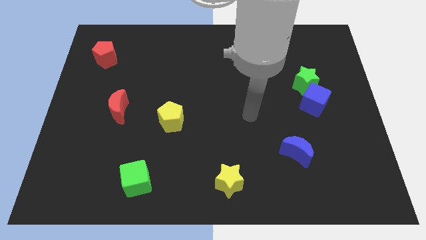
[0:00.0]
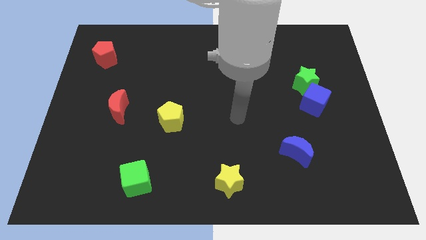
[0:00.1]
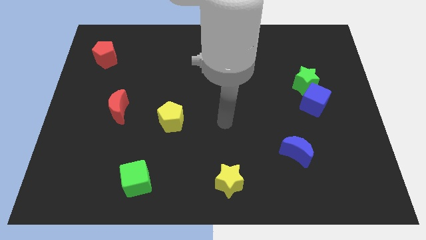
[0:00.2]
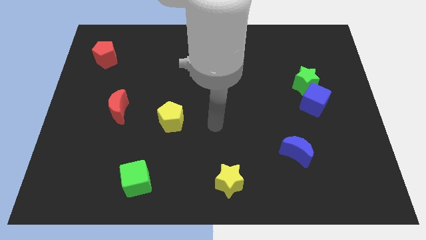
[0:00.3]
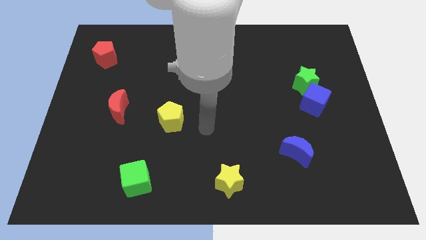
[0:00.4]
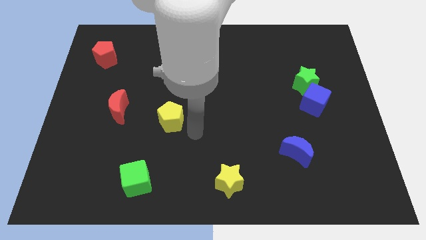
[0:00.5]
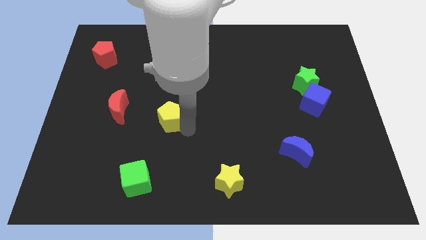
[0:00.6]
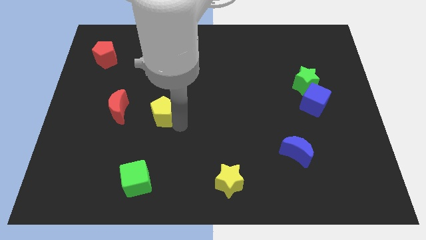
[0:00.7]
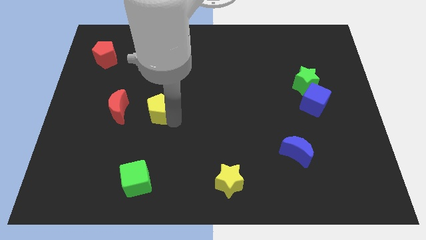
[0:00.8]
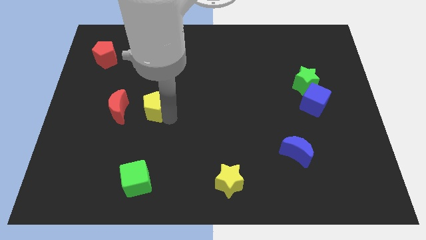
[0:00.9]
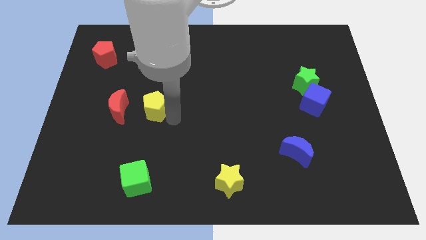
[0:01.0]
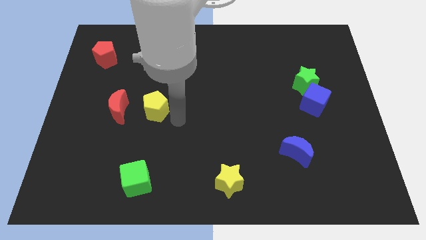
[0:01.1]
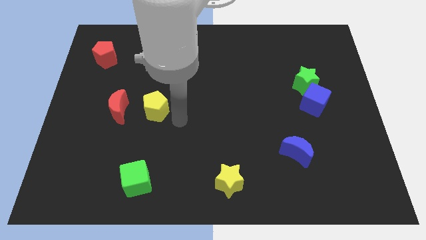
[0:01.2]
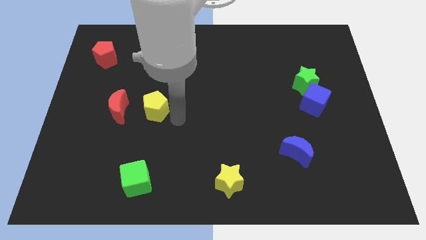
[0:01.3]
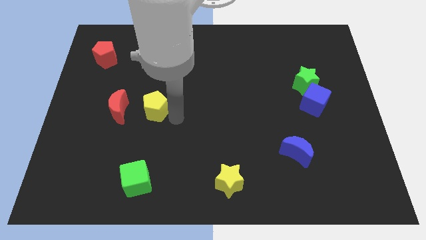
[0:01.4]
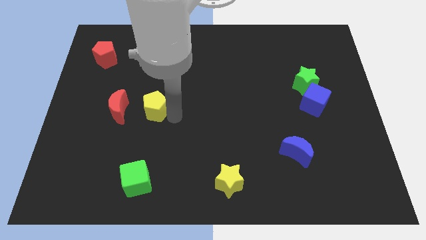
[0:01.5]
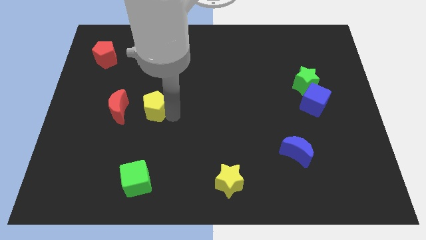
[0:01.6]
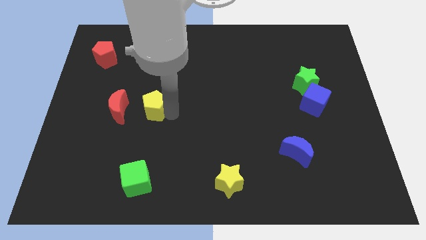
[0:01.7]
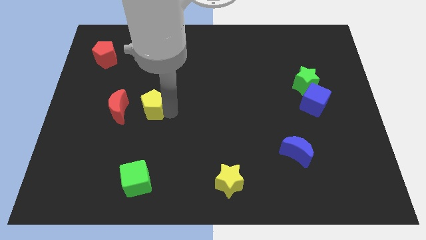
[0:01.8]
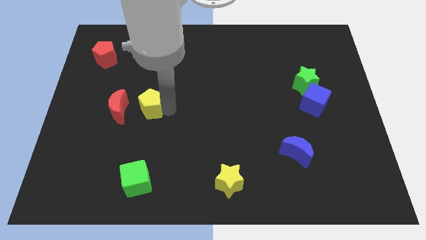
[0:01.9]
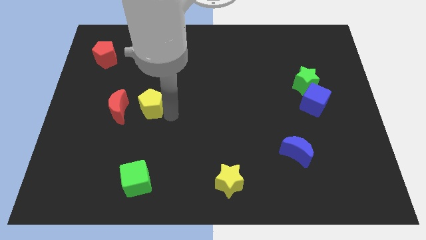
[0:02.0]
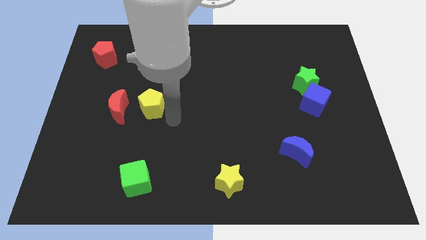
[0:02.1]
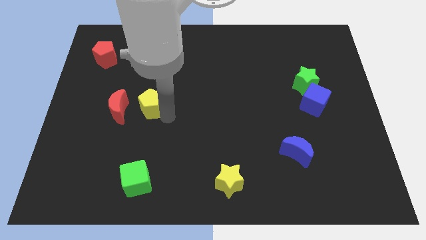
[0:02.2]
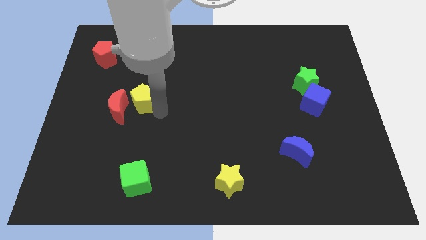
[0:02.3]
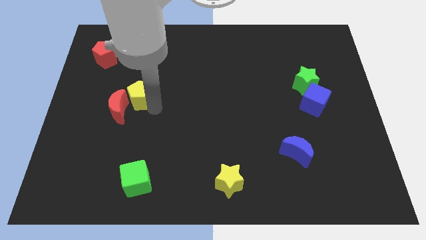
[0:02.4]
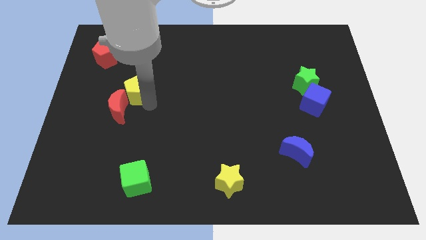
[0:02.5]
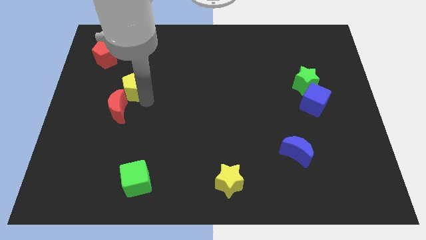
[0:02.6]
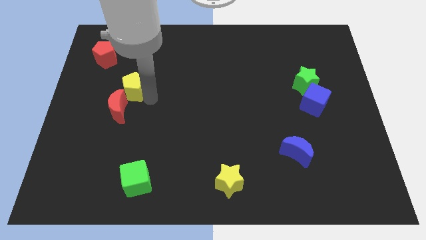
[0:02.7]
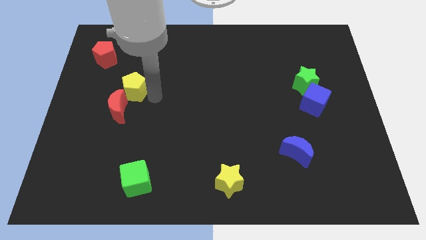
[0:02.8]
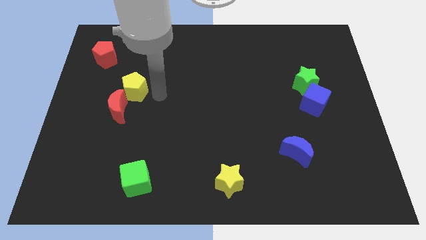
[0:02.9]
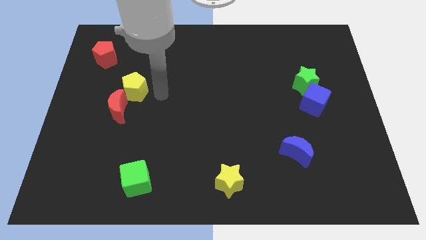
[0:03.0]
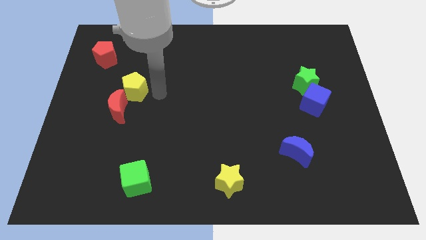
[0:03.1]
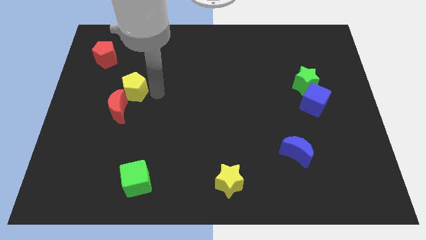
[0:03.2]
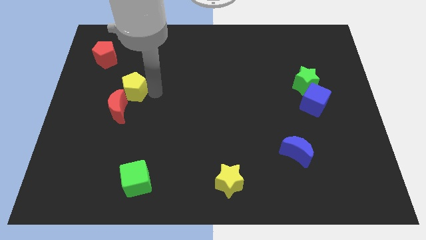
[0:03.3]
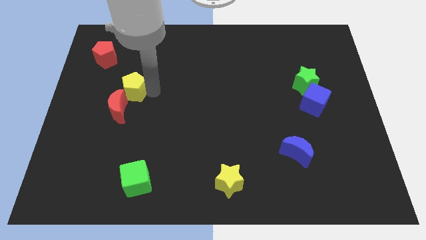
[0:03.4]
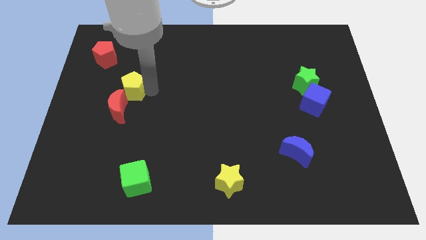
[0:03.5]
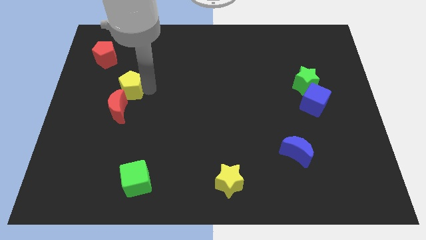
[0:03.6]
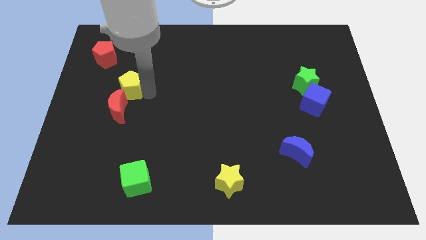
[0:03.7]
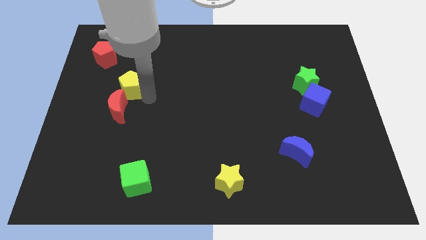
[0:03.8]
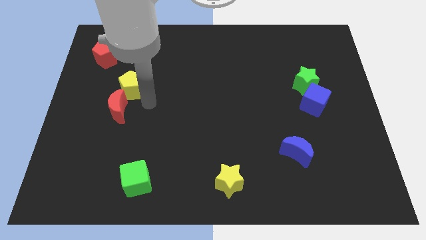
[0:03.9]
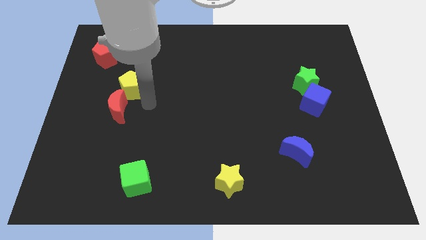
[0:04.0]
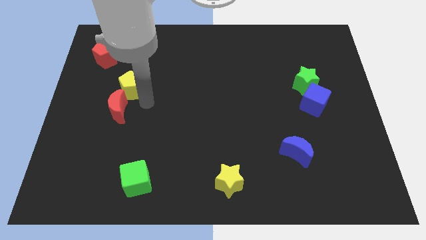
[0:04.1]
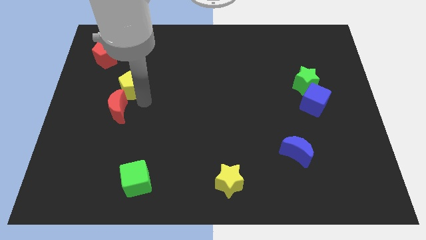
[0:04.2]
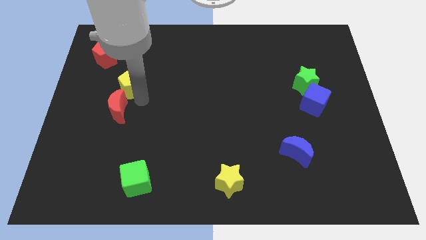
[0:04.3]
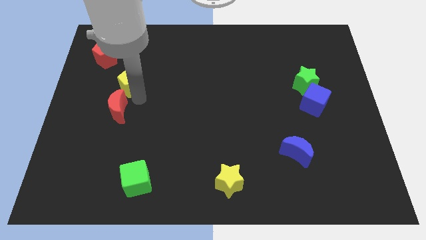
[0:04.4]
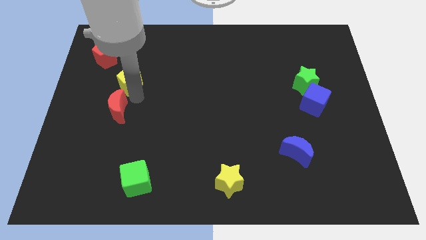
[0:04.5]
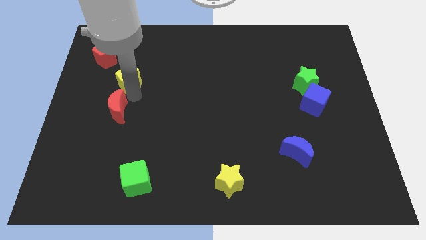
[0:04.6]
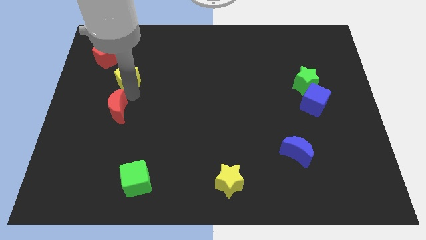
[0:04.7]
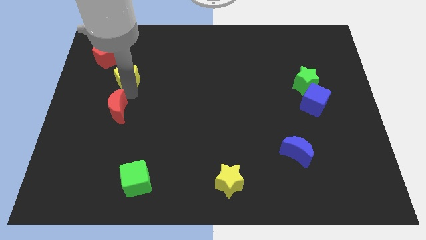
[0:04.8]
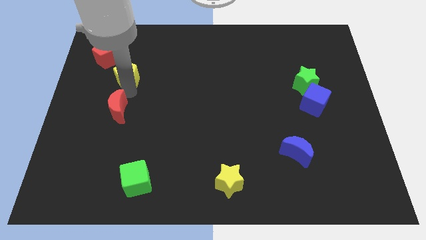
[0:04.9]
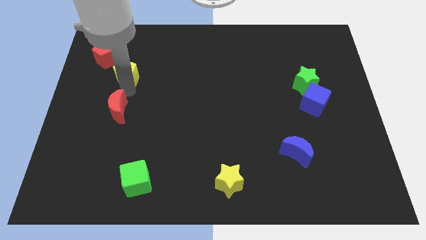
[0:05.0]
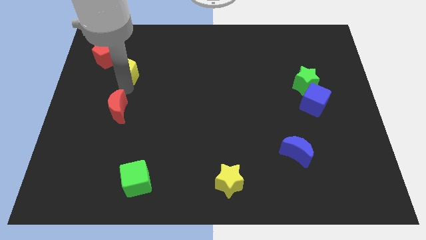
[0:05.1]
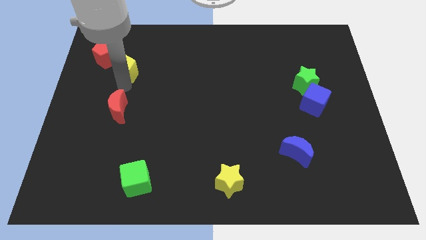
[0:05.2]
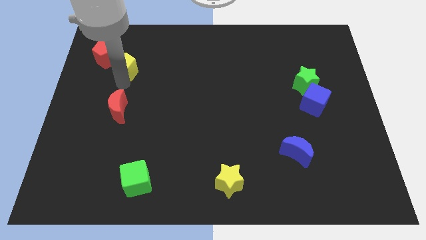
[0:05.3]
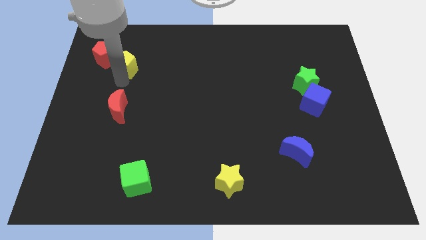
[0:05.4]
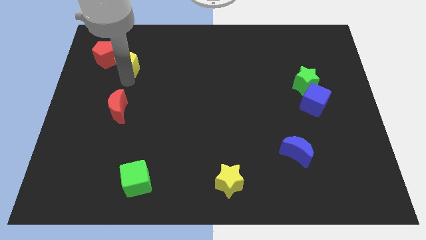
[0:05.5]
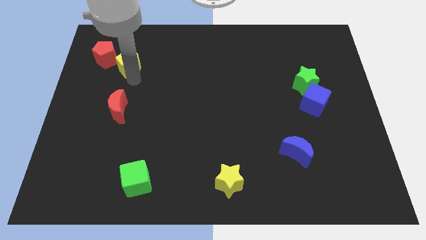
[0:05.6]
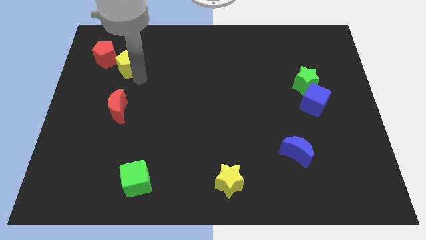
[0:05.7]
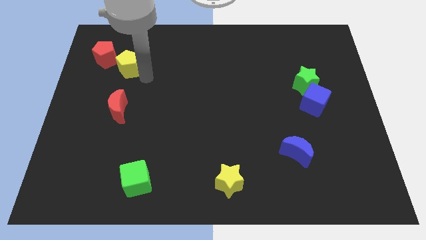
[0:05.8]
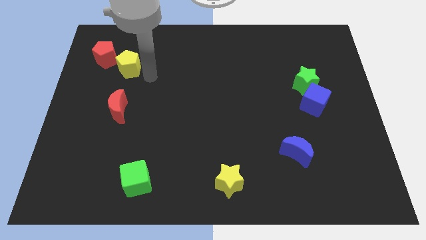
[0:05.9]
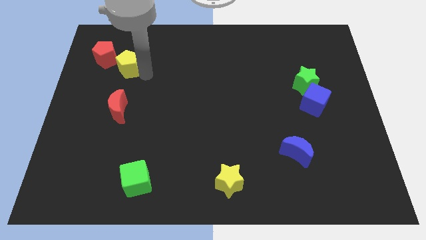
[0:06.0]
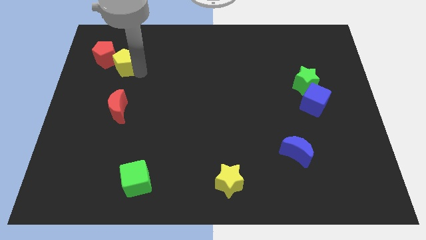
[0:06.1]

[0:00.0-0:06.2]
slide the yellow pentagon next to the red pentagon

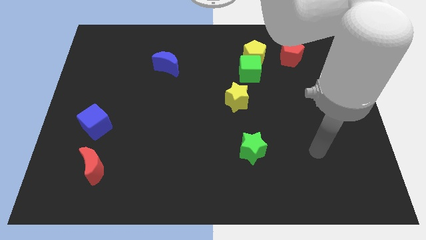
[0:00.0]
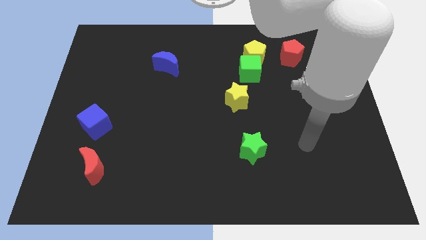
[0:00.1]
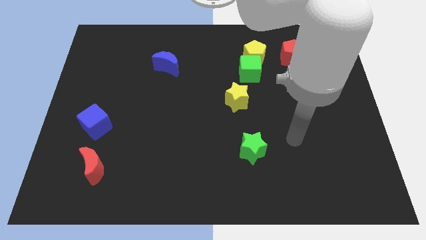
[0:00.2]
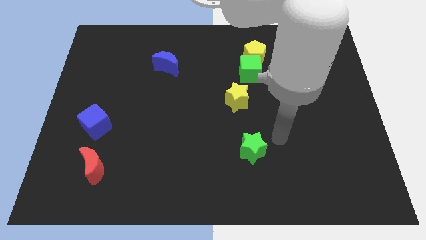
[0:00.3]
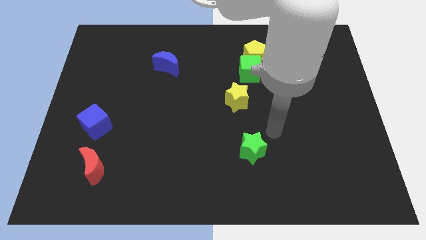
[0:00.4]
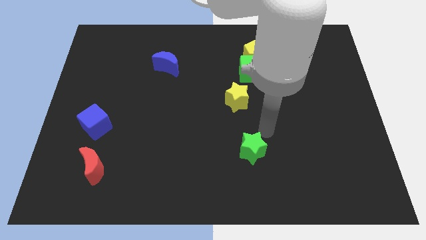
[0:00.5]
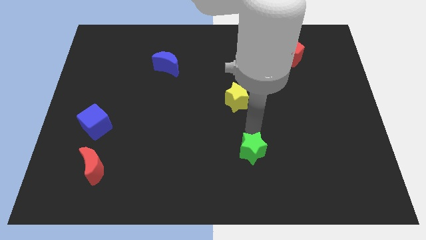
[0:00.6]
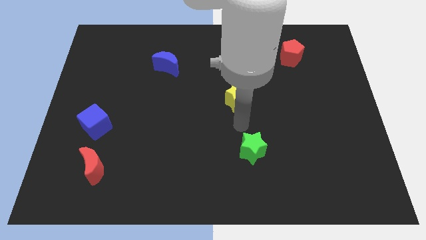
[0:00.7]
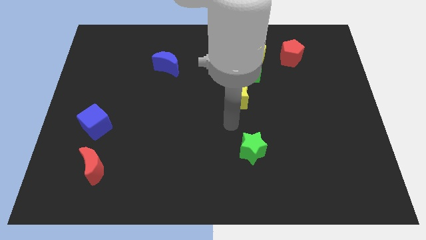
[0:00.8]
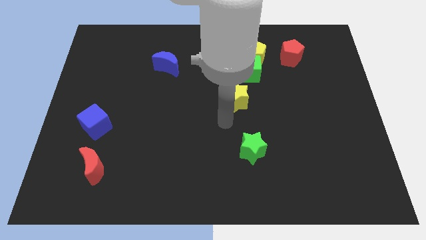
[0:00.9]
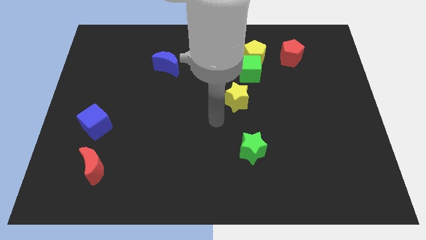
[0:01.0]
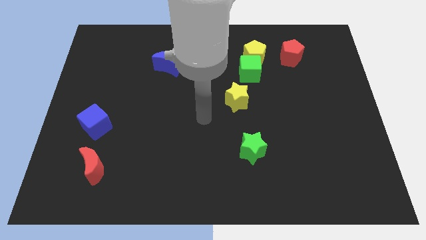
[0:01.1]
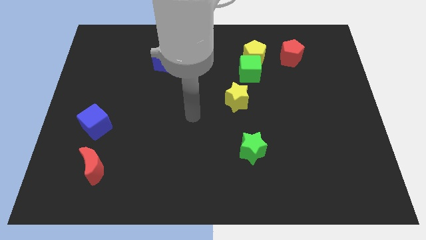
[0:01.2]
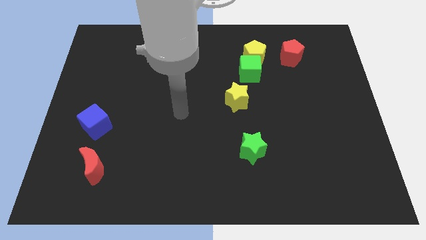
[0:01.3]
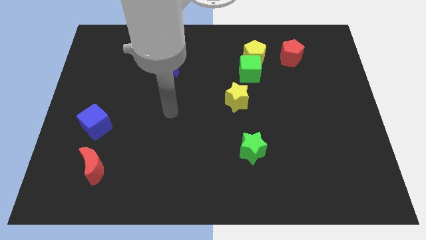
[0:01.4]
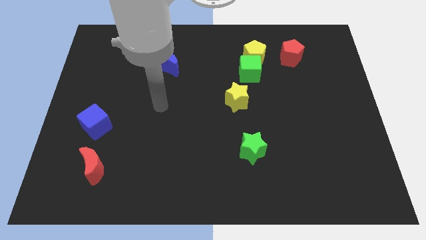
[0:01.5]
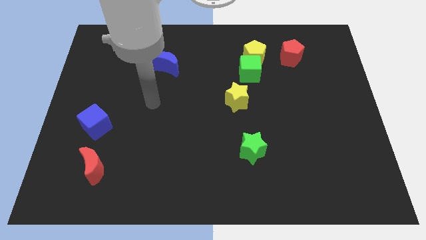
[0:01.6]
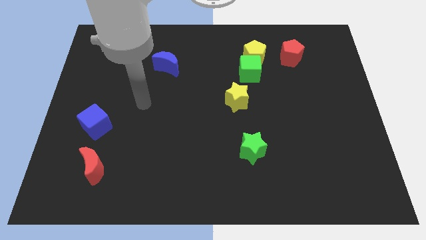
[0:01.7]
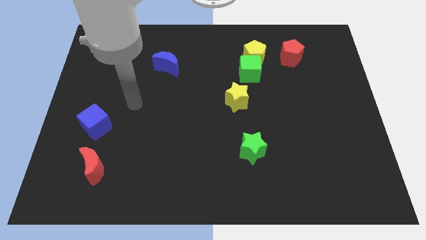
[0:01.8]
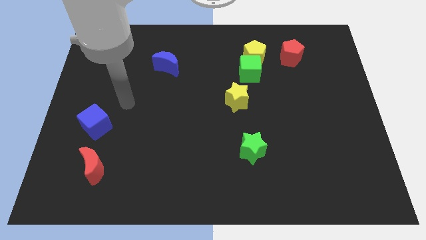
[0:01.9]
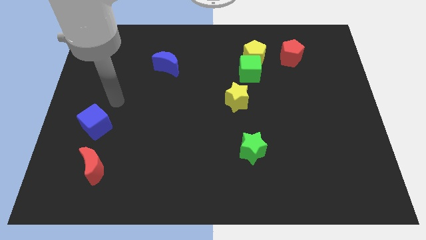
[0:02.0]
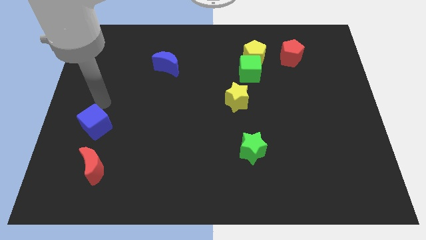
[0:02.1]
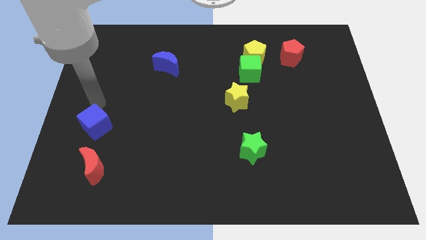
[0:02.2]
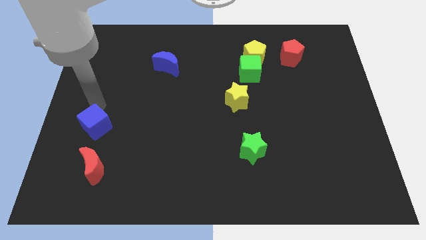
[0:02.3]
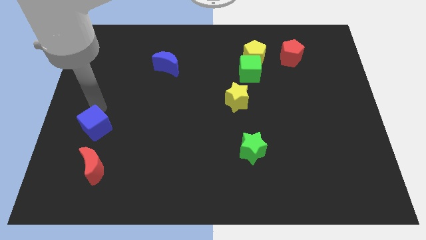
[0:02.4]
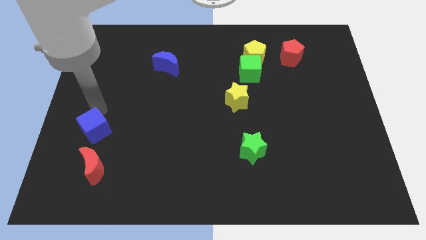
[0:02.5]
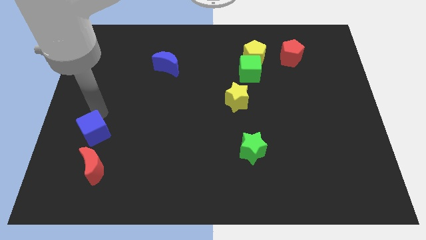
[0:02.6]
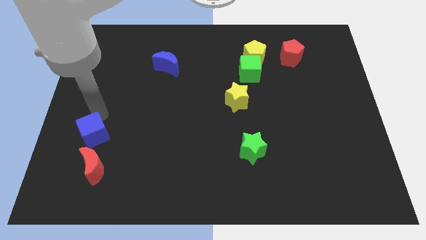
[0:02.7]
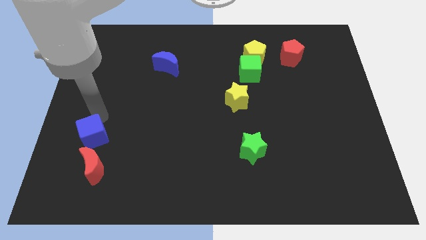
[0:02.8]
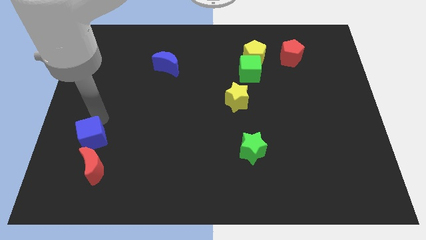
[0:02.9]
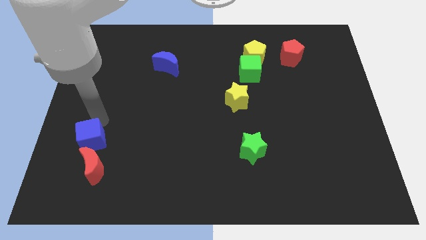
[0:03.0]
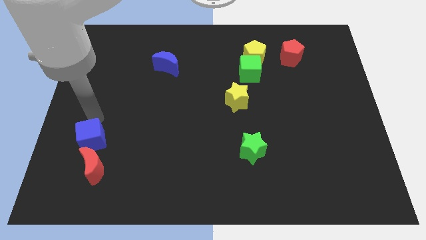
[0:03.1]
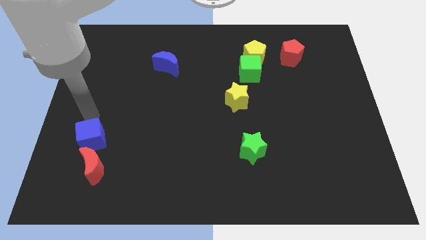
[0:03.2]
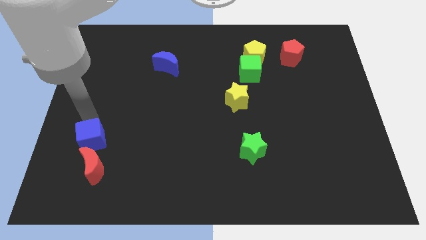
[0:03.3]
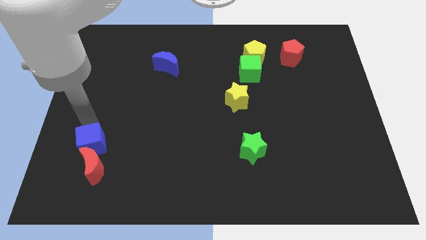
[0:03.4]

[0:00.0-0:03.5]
push the blue cube towards the red moon
